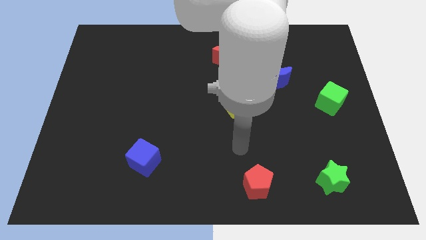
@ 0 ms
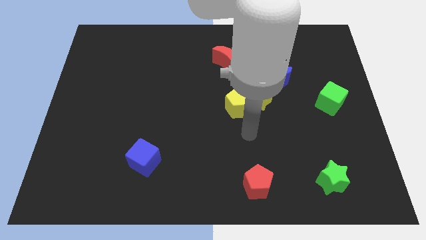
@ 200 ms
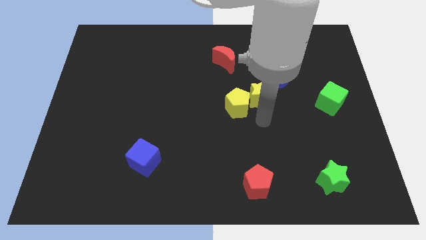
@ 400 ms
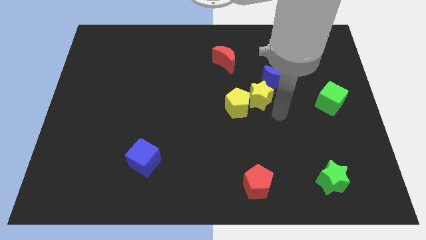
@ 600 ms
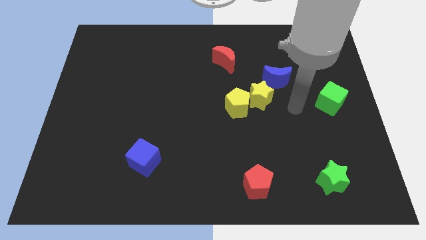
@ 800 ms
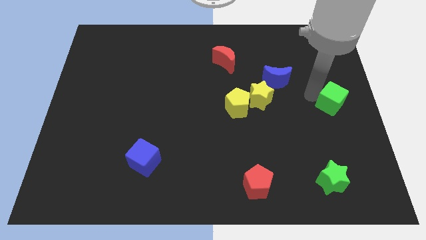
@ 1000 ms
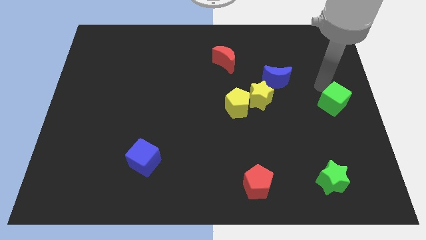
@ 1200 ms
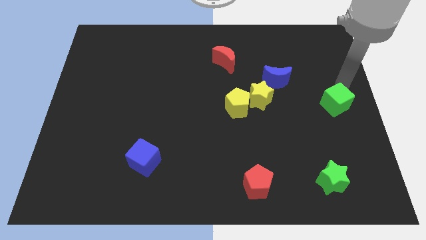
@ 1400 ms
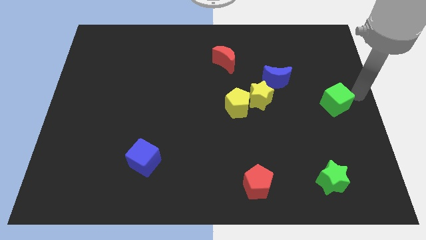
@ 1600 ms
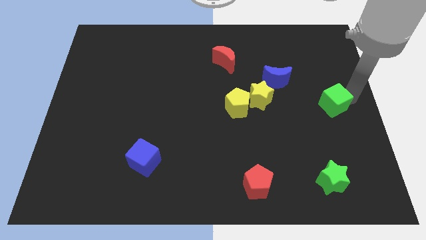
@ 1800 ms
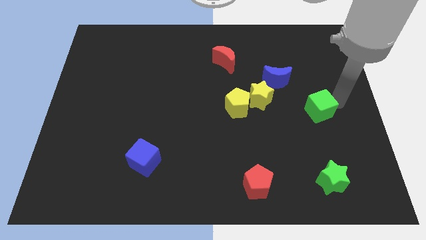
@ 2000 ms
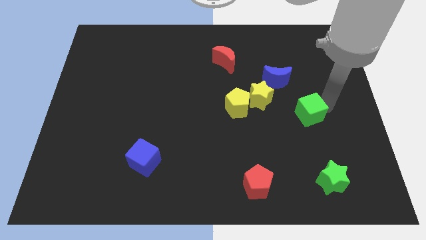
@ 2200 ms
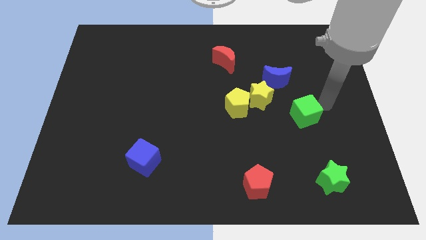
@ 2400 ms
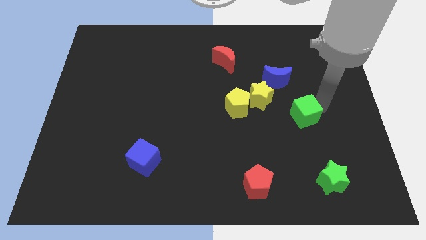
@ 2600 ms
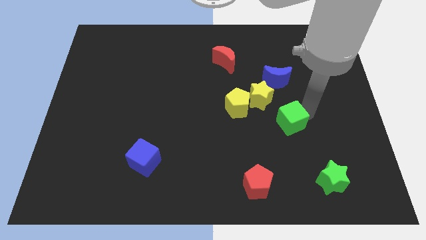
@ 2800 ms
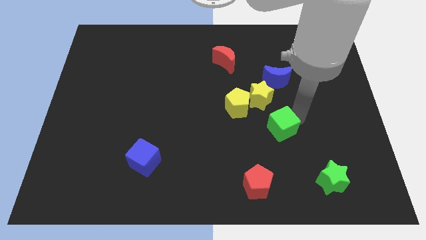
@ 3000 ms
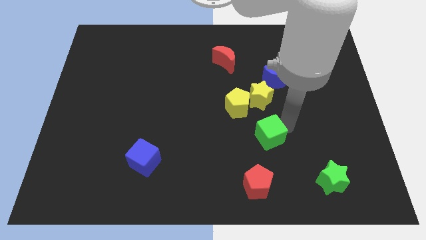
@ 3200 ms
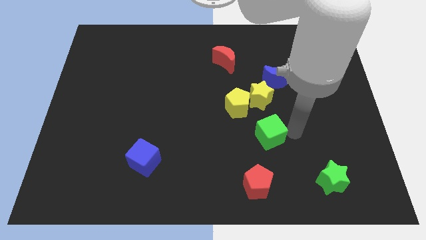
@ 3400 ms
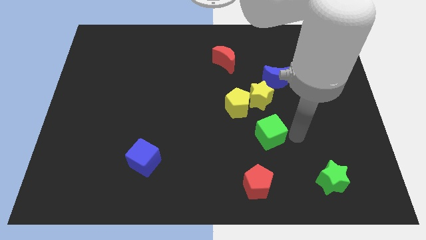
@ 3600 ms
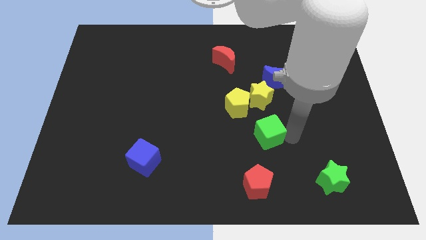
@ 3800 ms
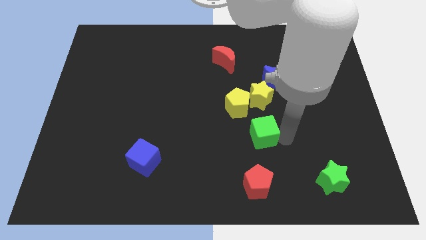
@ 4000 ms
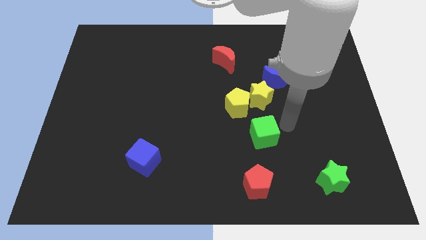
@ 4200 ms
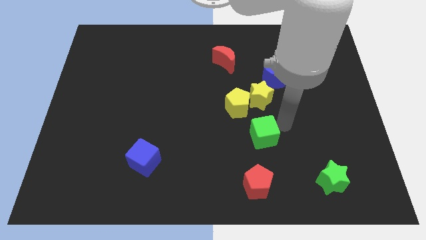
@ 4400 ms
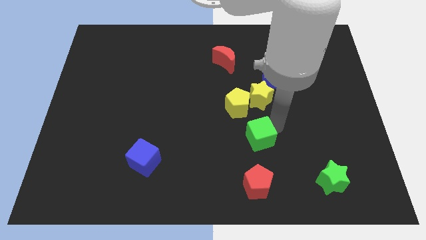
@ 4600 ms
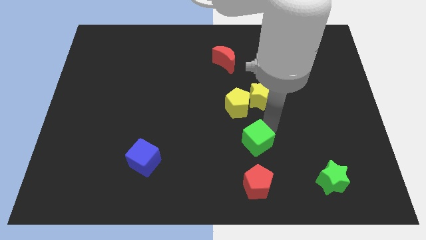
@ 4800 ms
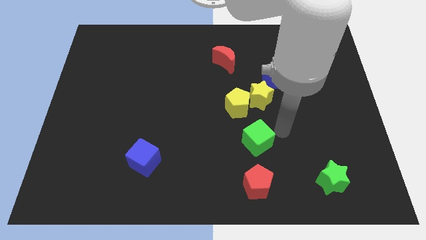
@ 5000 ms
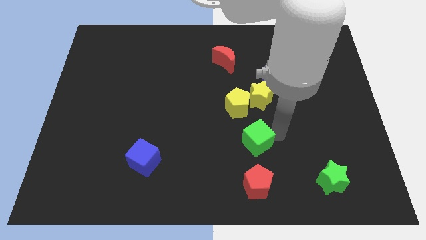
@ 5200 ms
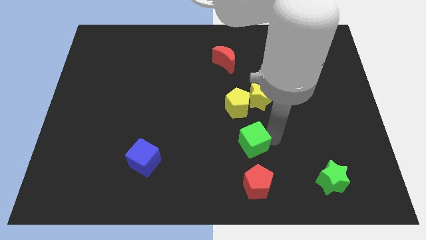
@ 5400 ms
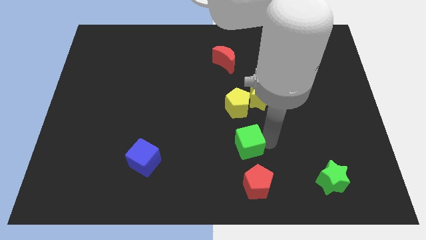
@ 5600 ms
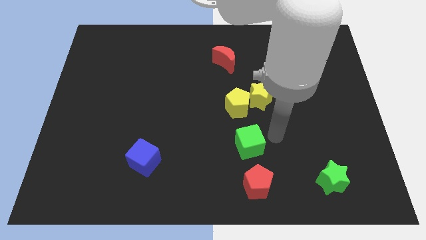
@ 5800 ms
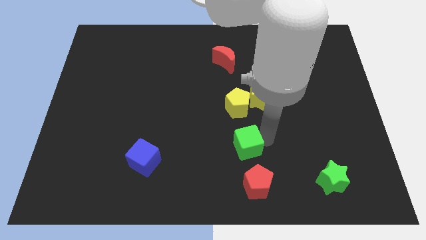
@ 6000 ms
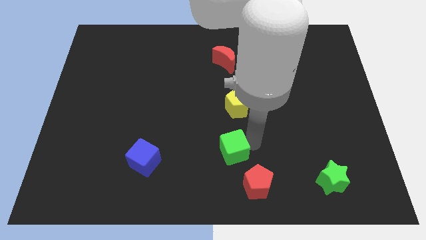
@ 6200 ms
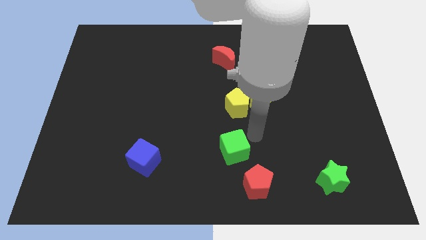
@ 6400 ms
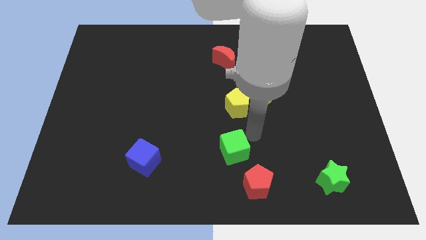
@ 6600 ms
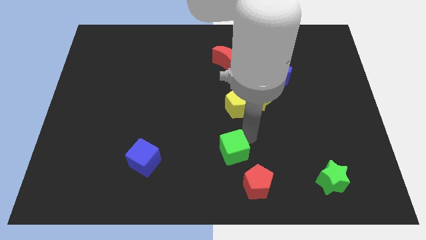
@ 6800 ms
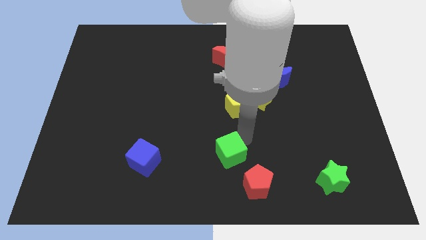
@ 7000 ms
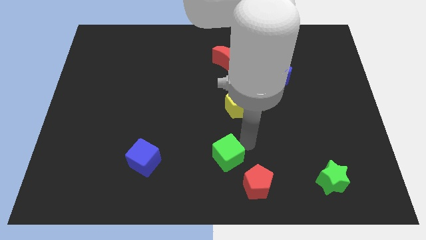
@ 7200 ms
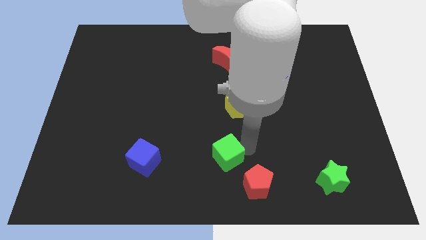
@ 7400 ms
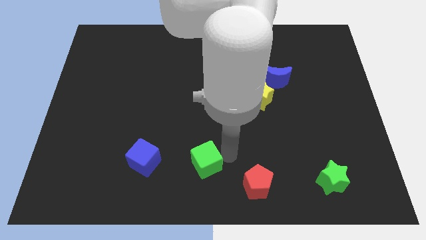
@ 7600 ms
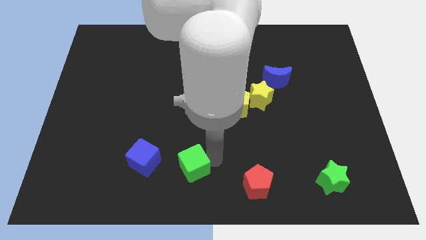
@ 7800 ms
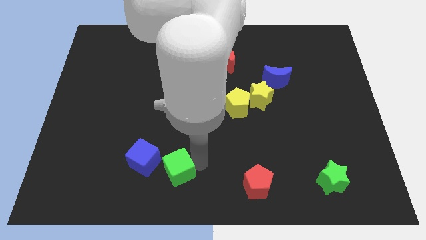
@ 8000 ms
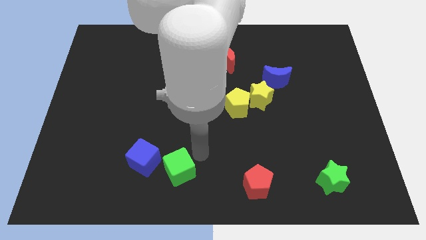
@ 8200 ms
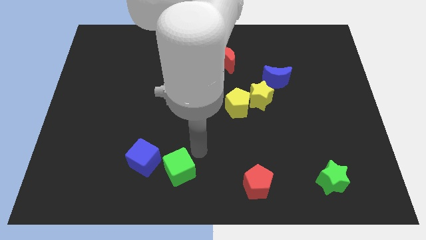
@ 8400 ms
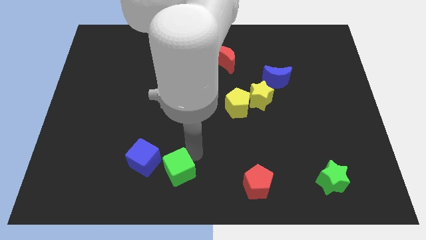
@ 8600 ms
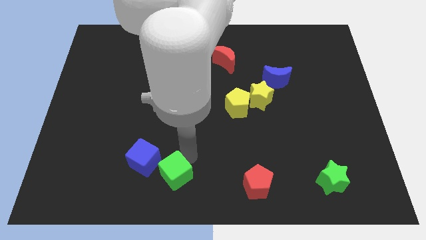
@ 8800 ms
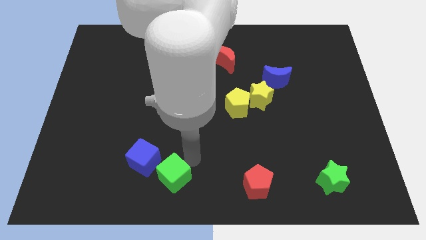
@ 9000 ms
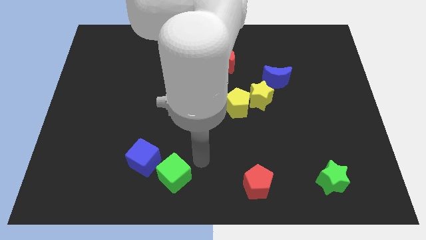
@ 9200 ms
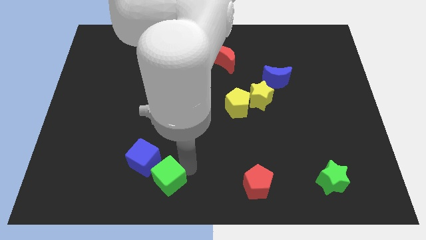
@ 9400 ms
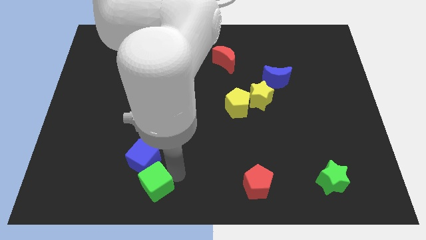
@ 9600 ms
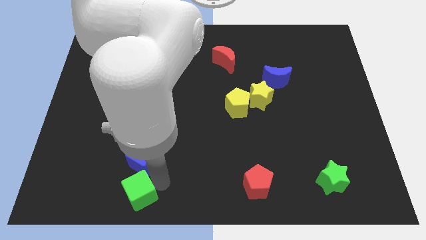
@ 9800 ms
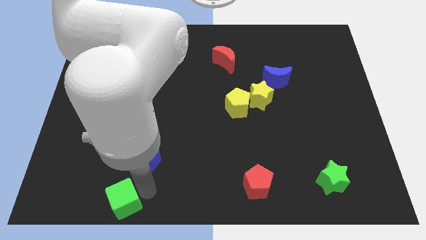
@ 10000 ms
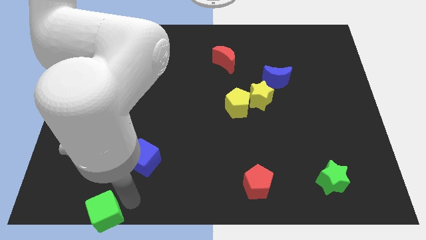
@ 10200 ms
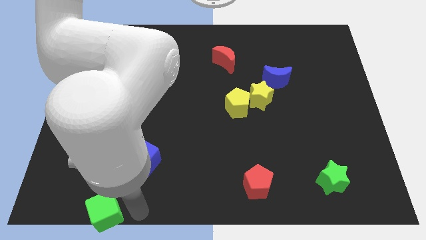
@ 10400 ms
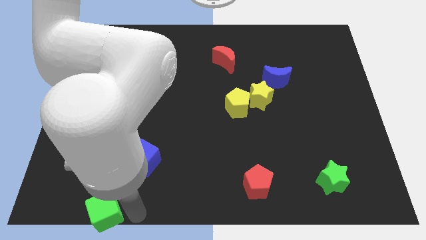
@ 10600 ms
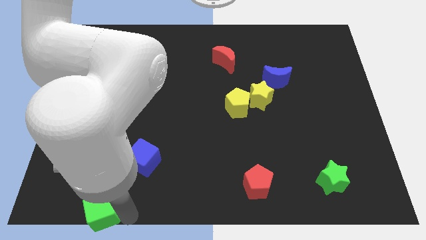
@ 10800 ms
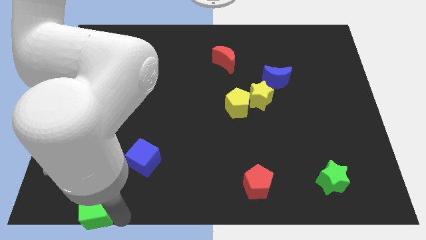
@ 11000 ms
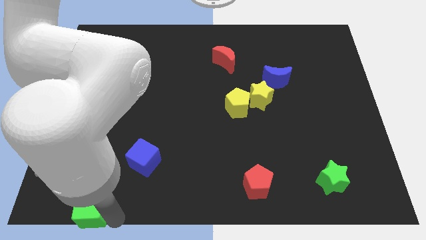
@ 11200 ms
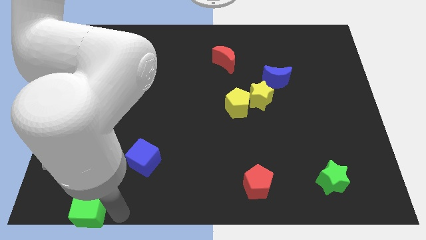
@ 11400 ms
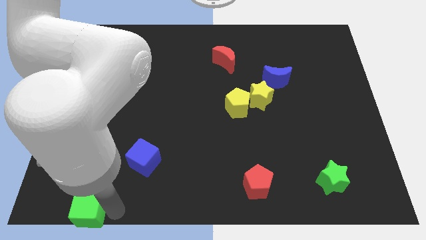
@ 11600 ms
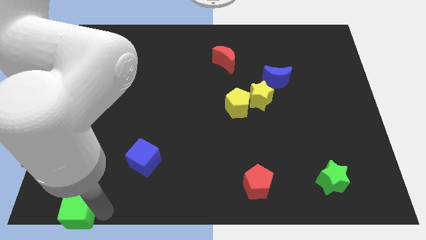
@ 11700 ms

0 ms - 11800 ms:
slide the green cube to the lower left corner

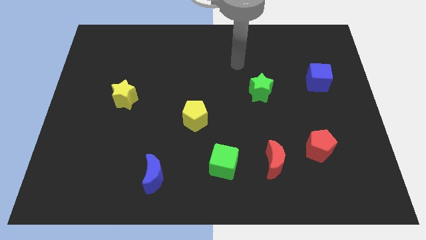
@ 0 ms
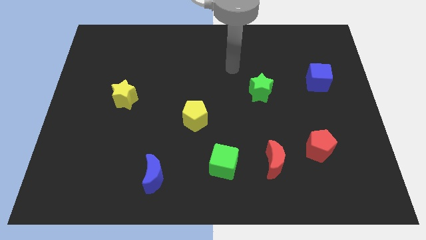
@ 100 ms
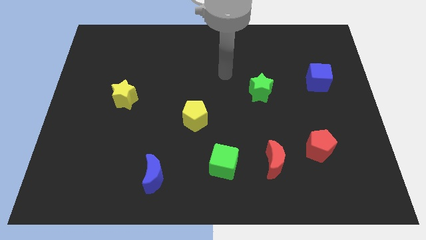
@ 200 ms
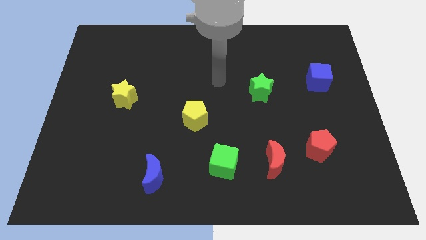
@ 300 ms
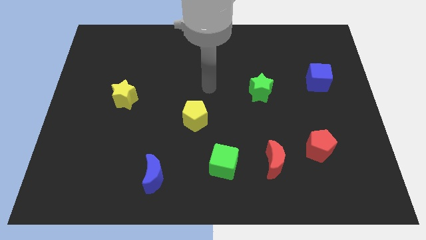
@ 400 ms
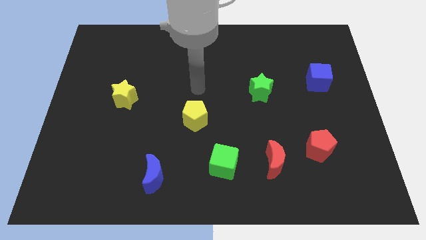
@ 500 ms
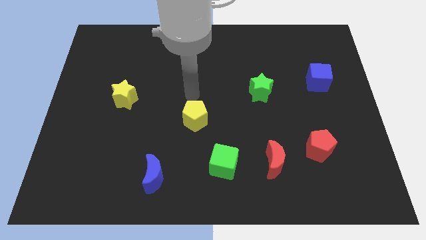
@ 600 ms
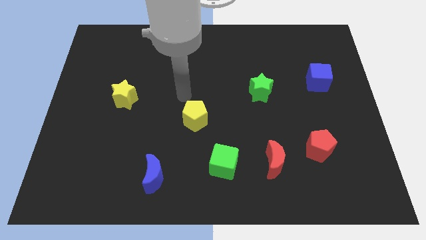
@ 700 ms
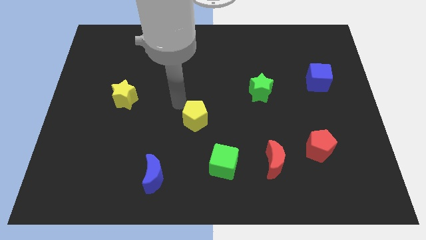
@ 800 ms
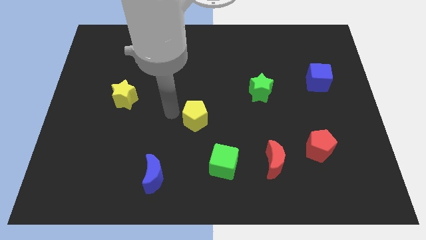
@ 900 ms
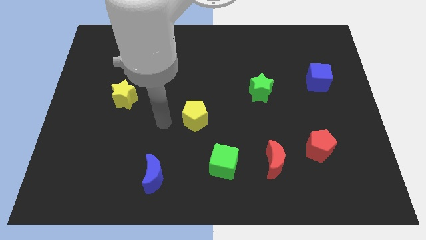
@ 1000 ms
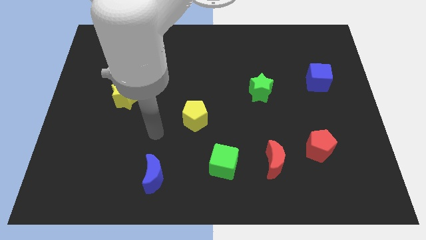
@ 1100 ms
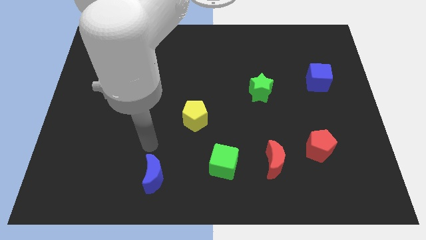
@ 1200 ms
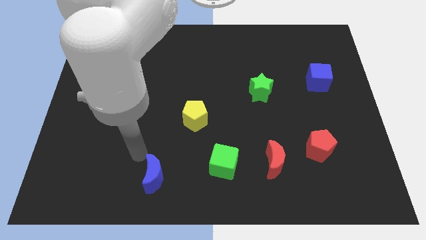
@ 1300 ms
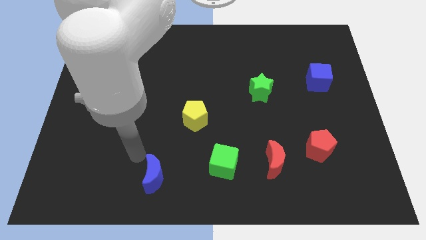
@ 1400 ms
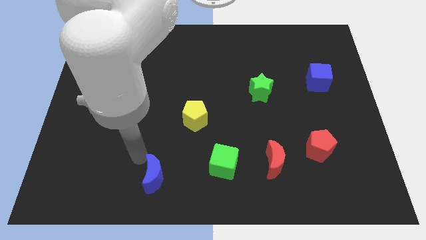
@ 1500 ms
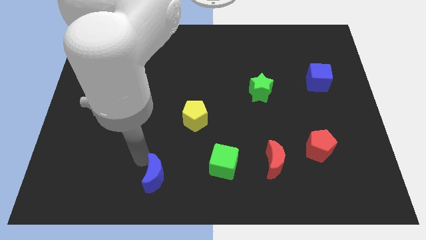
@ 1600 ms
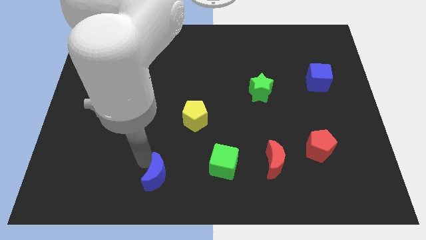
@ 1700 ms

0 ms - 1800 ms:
push the blue moon to the bottom side

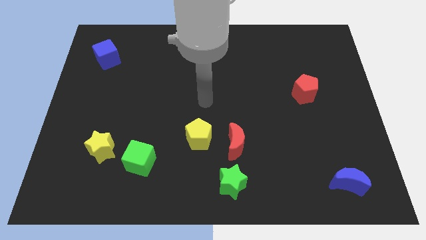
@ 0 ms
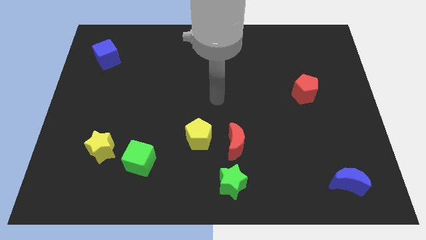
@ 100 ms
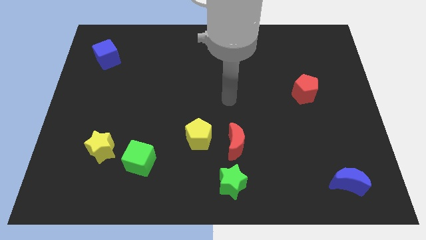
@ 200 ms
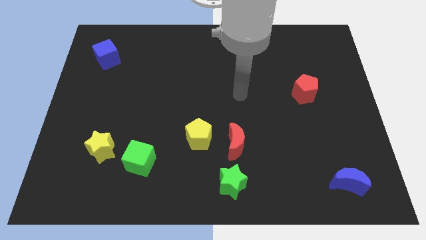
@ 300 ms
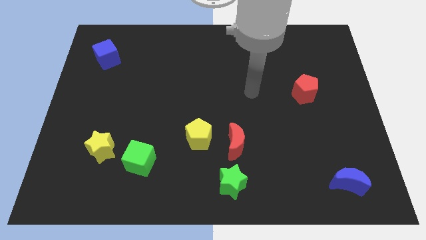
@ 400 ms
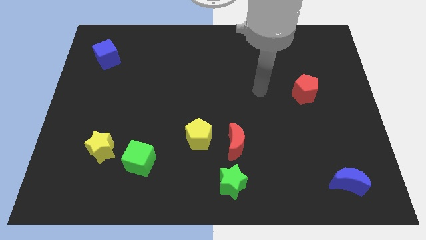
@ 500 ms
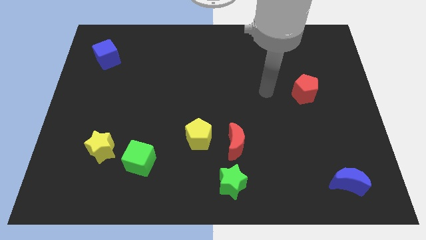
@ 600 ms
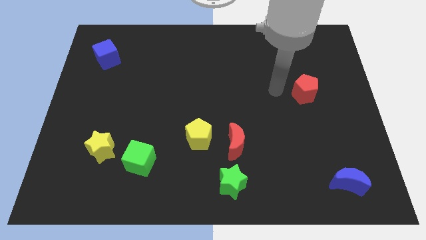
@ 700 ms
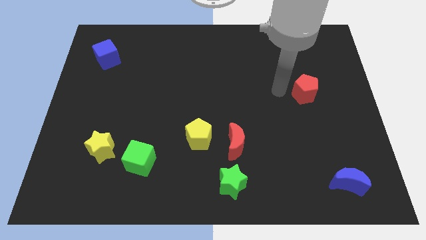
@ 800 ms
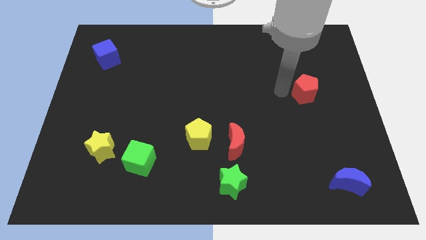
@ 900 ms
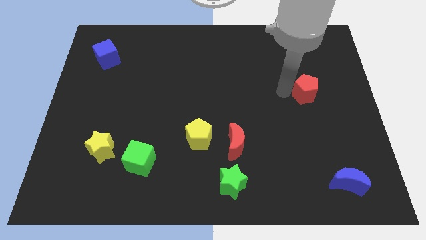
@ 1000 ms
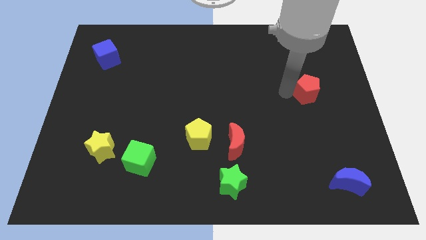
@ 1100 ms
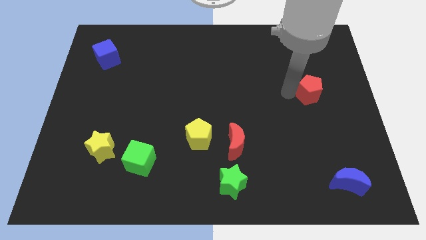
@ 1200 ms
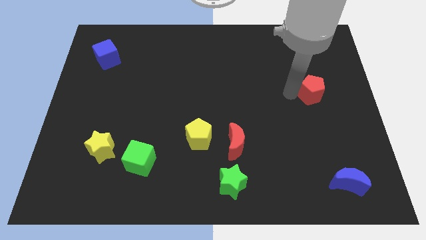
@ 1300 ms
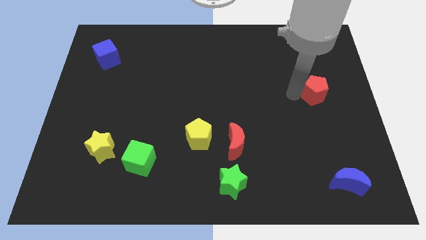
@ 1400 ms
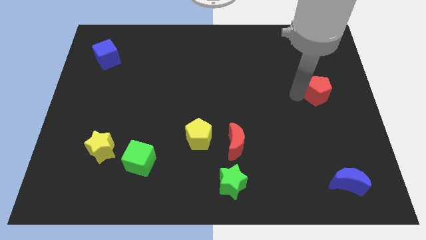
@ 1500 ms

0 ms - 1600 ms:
slide the red pentagon to the right side of the board
